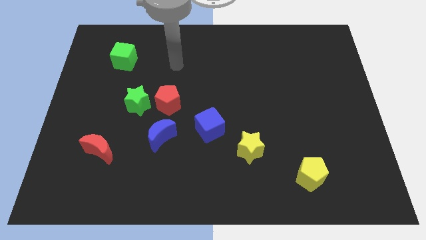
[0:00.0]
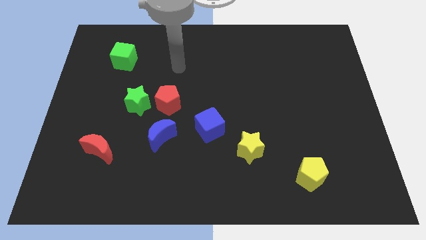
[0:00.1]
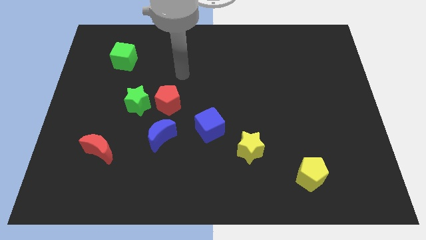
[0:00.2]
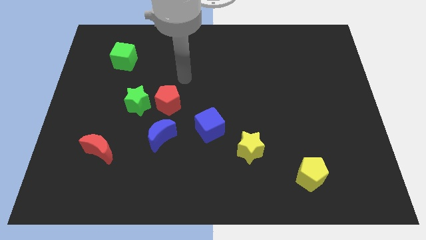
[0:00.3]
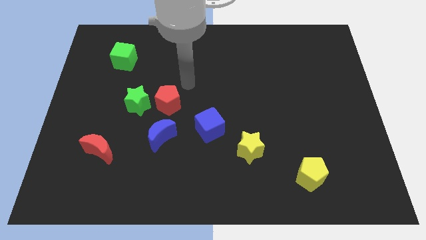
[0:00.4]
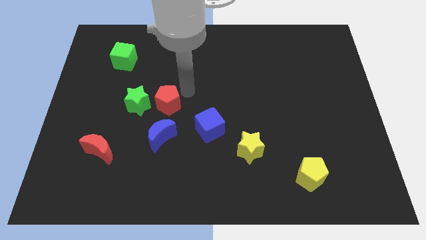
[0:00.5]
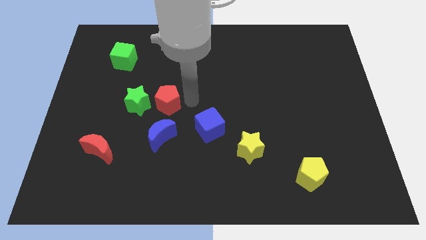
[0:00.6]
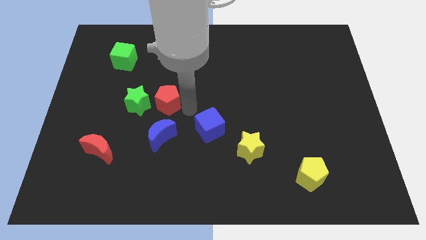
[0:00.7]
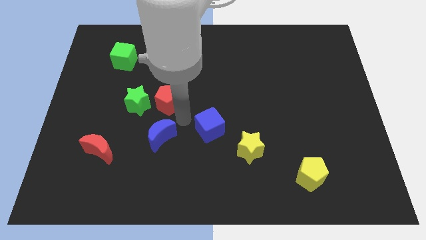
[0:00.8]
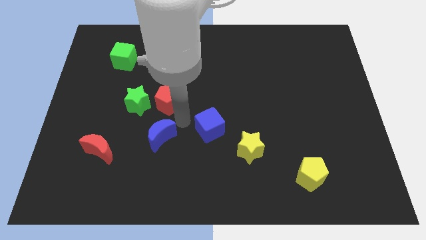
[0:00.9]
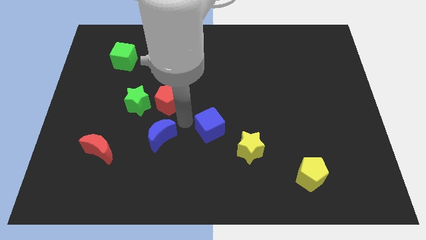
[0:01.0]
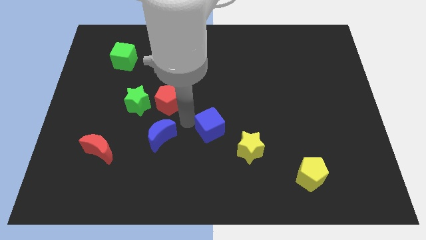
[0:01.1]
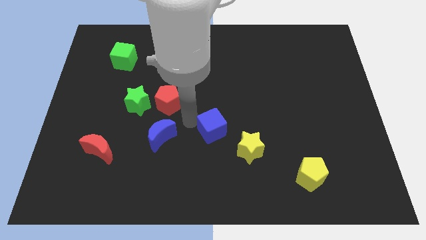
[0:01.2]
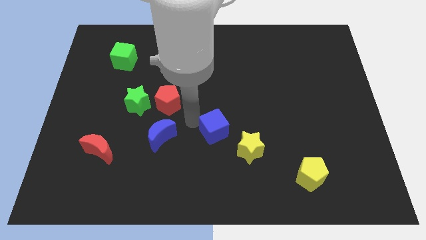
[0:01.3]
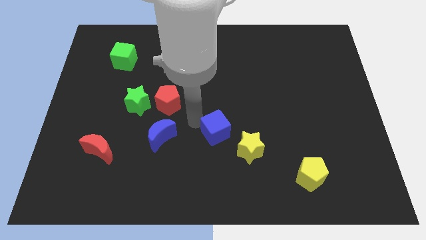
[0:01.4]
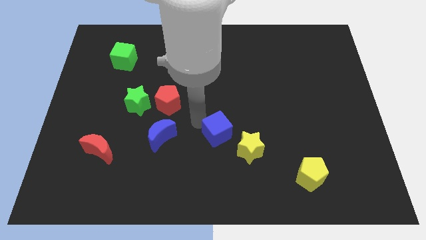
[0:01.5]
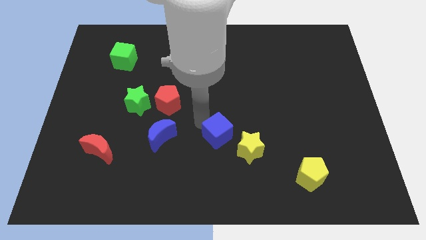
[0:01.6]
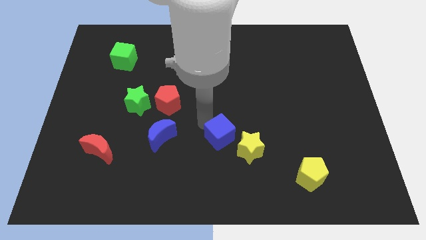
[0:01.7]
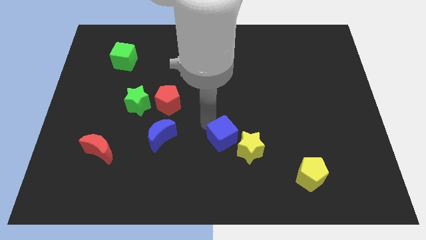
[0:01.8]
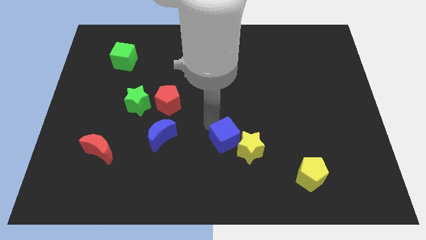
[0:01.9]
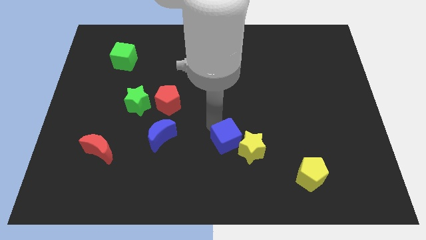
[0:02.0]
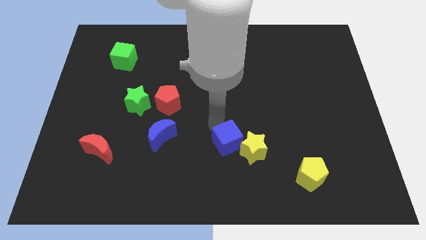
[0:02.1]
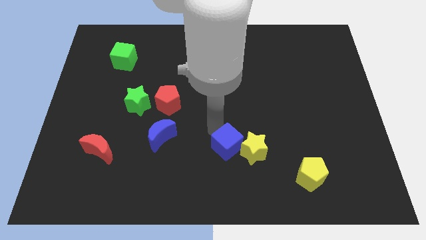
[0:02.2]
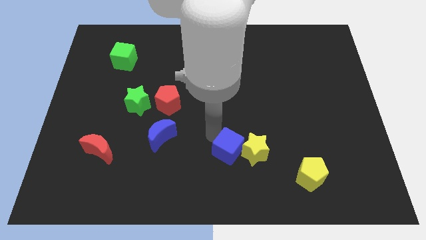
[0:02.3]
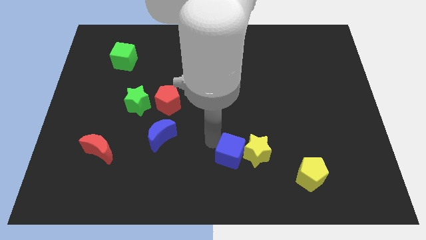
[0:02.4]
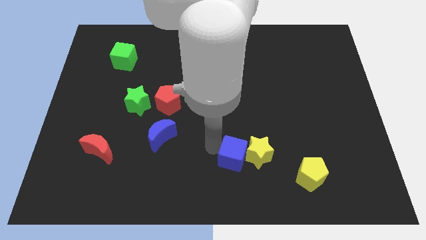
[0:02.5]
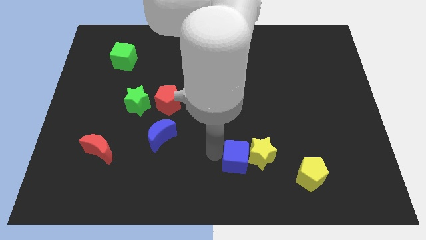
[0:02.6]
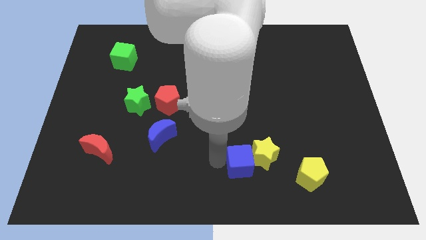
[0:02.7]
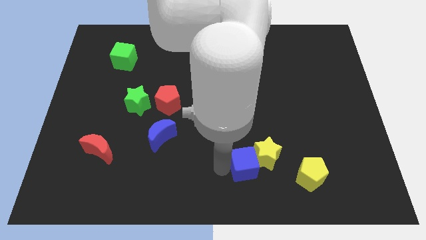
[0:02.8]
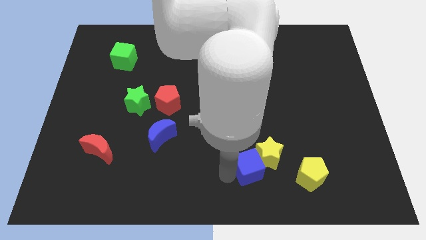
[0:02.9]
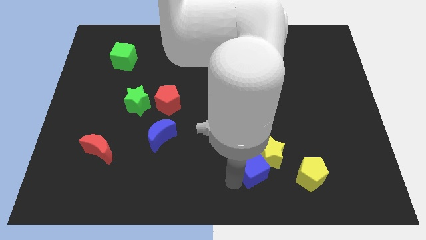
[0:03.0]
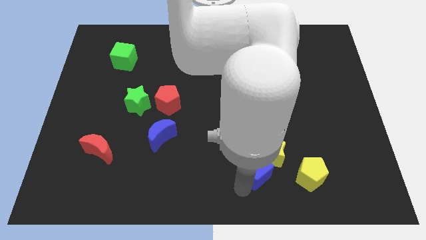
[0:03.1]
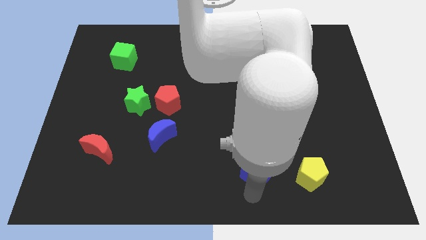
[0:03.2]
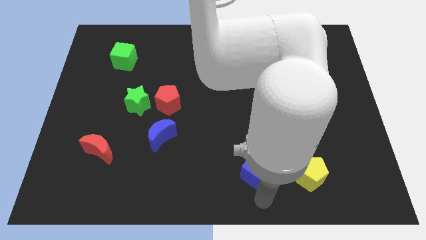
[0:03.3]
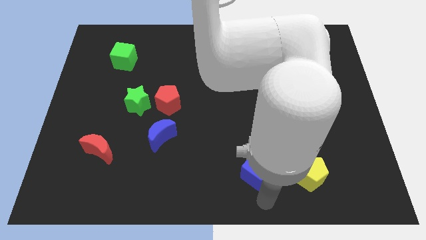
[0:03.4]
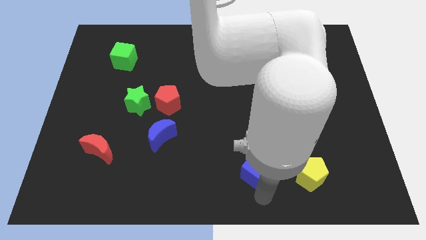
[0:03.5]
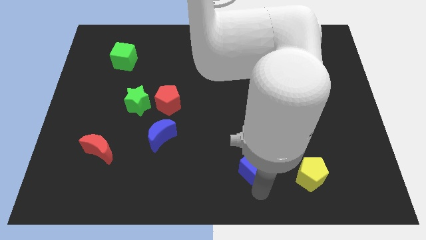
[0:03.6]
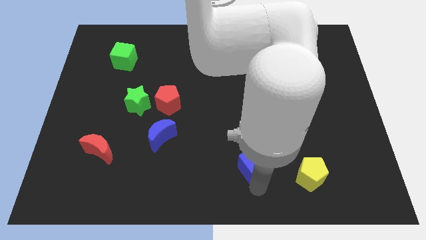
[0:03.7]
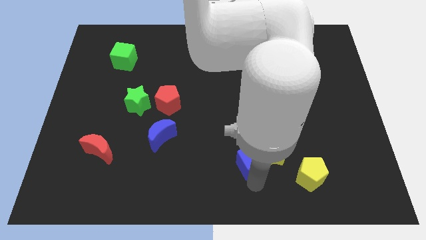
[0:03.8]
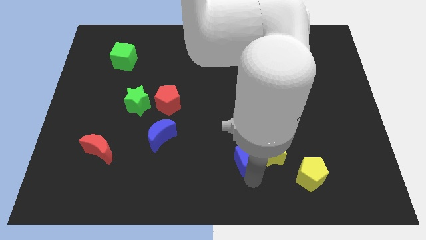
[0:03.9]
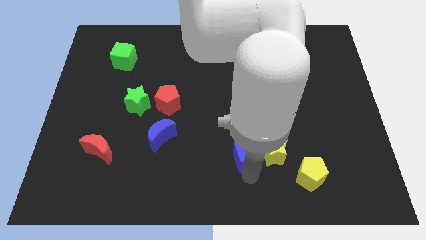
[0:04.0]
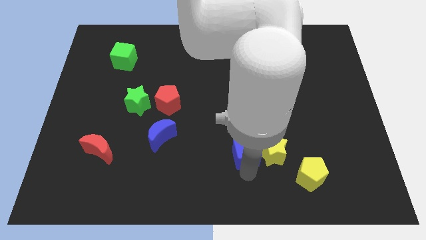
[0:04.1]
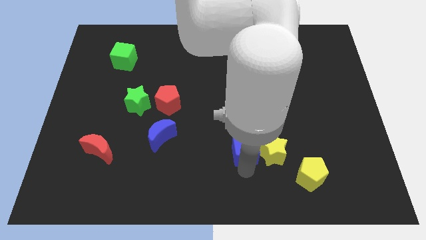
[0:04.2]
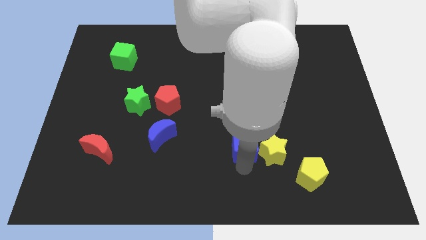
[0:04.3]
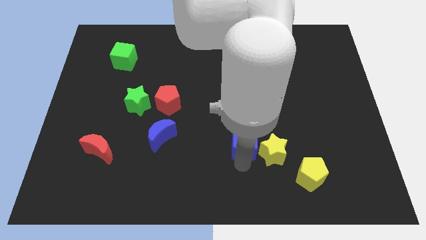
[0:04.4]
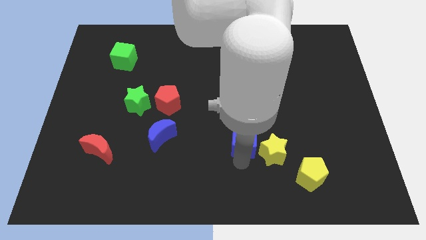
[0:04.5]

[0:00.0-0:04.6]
slightly move the blue cube to the right

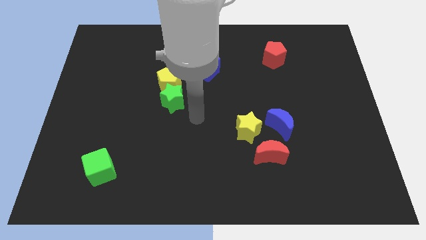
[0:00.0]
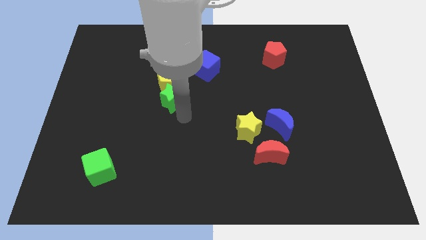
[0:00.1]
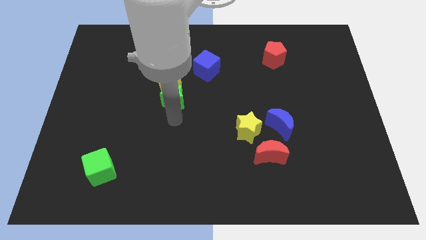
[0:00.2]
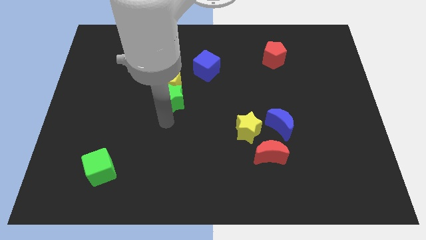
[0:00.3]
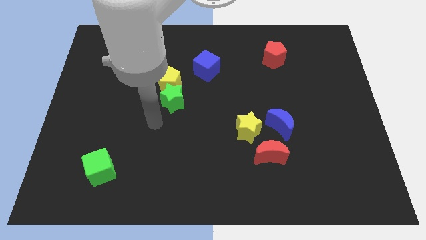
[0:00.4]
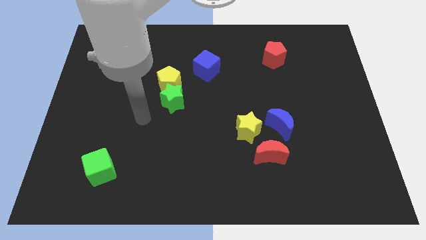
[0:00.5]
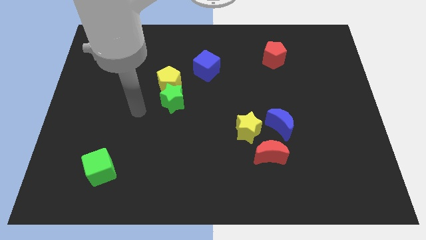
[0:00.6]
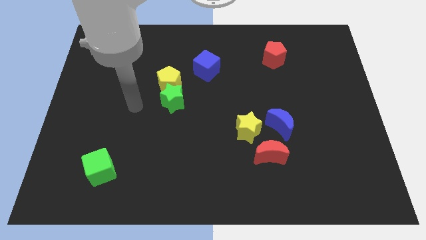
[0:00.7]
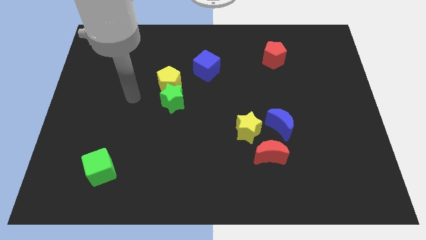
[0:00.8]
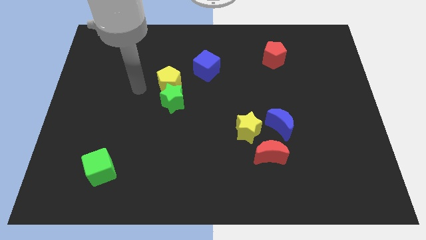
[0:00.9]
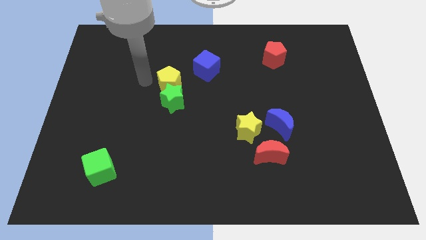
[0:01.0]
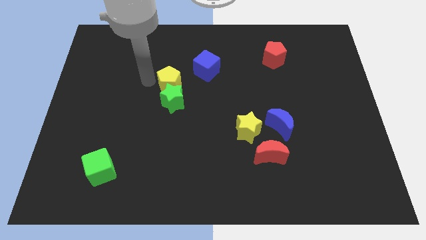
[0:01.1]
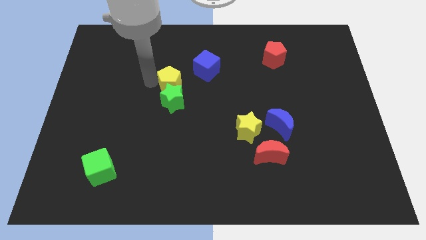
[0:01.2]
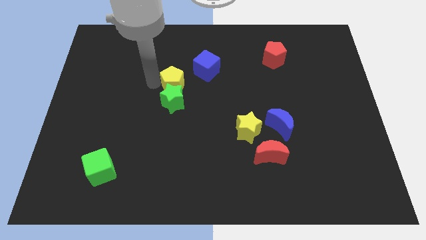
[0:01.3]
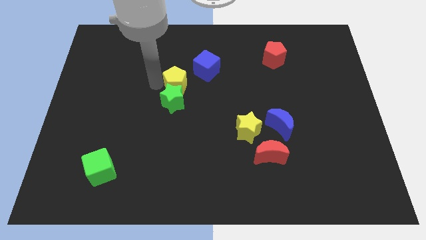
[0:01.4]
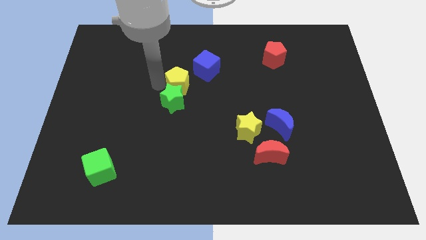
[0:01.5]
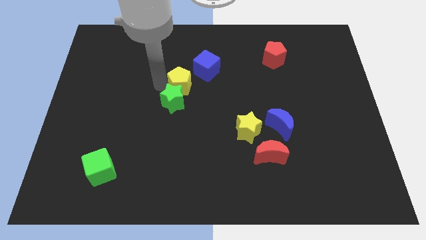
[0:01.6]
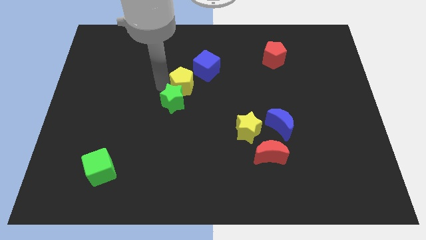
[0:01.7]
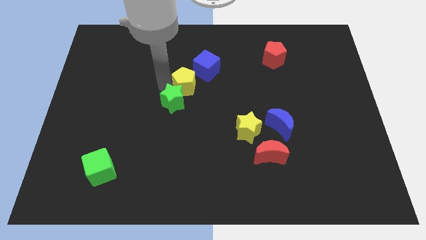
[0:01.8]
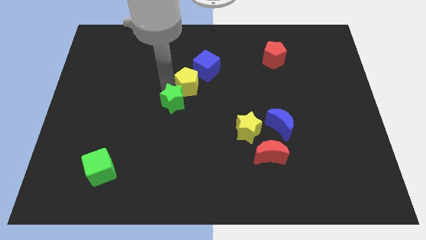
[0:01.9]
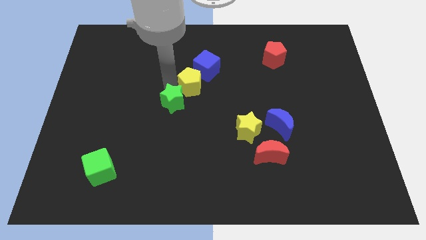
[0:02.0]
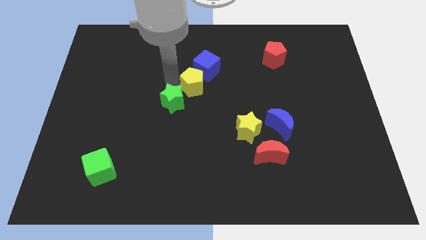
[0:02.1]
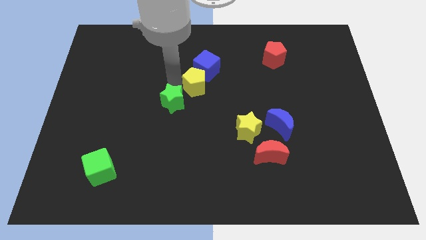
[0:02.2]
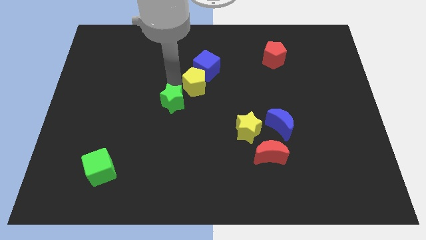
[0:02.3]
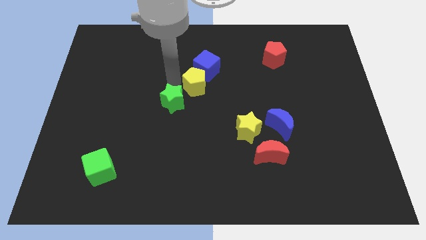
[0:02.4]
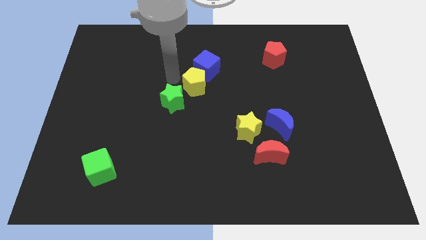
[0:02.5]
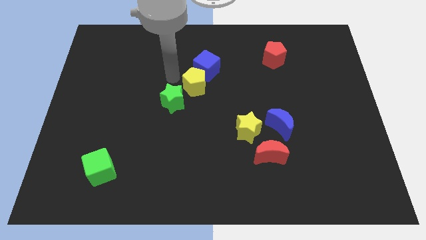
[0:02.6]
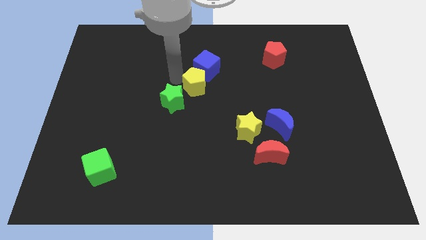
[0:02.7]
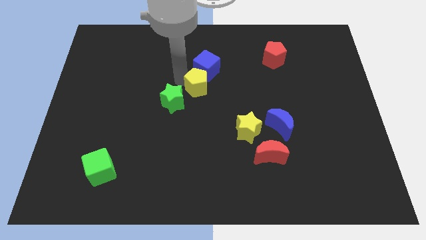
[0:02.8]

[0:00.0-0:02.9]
slide the yellow pentagon to the right slightly

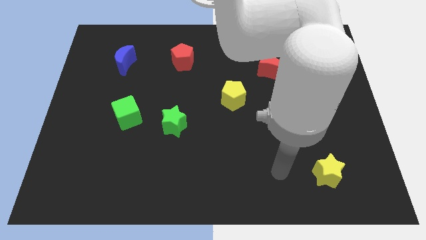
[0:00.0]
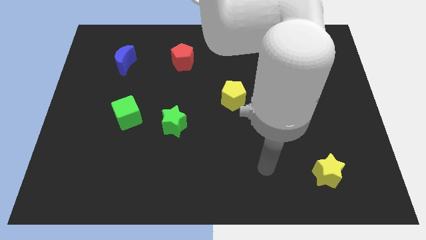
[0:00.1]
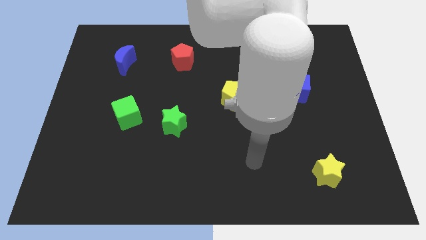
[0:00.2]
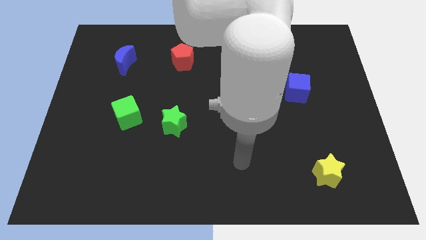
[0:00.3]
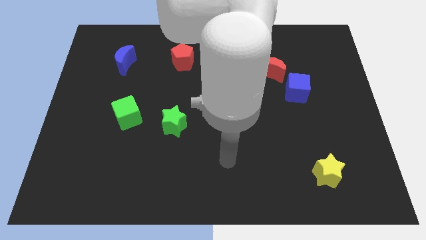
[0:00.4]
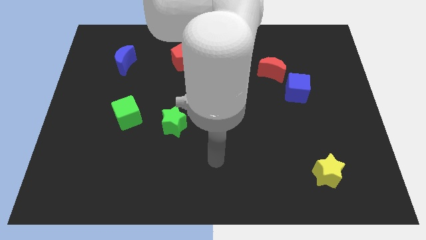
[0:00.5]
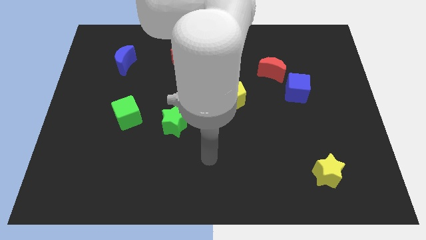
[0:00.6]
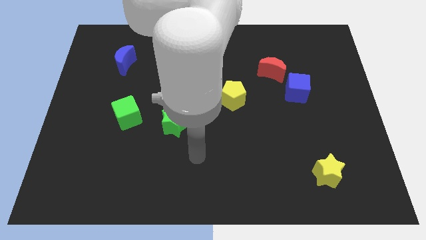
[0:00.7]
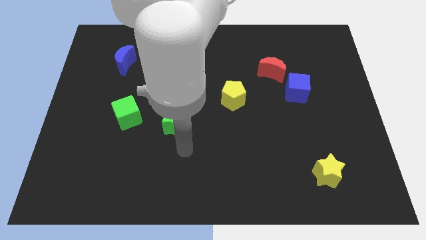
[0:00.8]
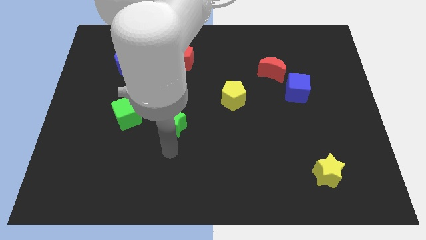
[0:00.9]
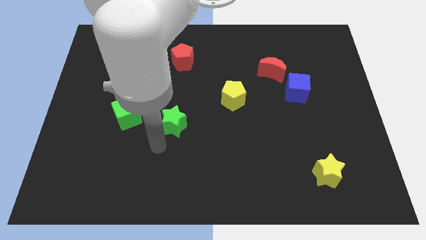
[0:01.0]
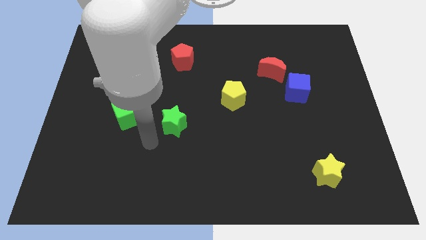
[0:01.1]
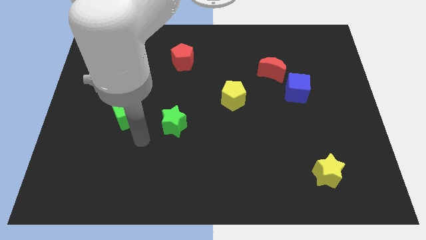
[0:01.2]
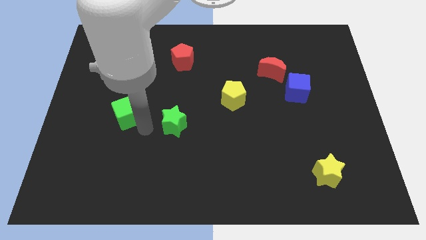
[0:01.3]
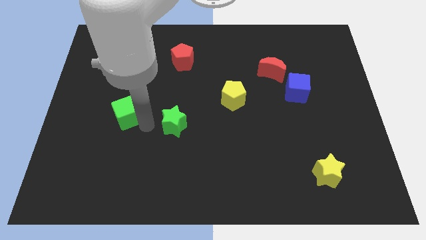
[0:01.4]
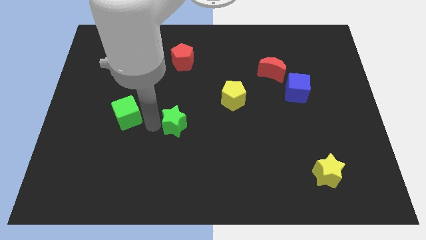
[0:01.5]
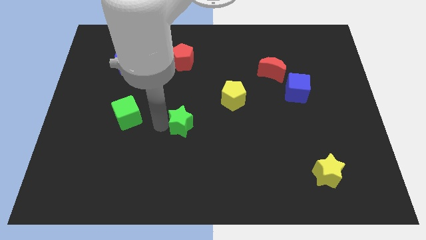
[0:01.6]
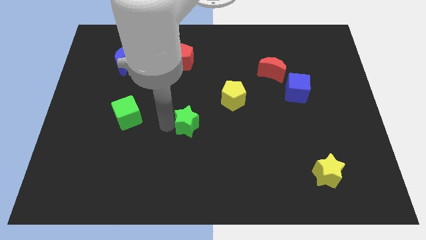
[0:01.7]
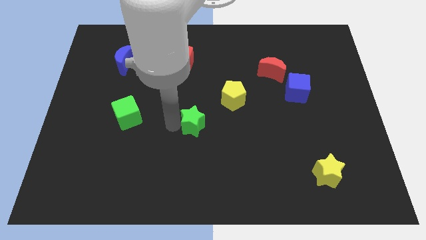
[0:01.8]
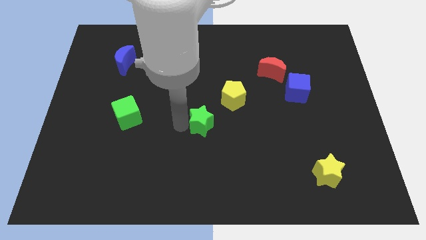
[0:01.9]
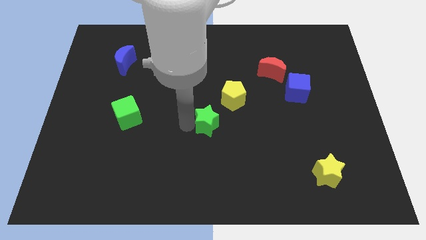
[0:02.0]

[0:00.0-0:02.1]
push the green star a little bit right
